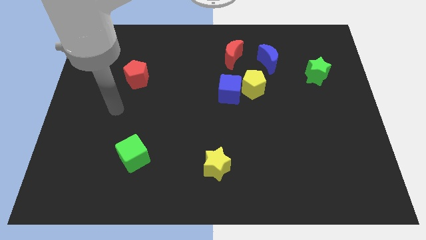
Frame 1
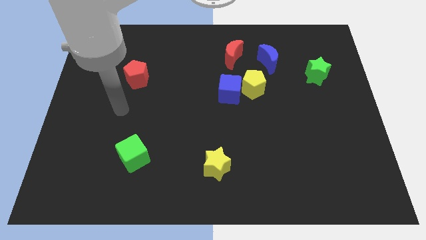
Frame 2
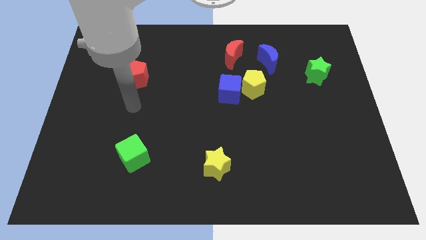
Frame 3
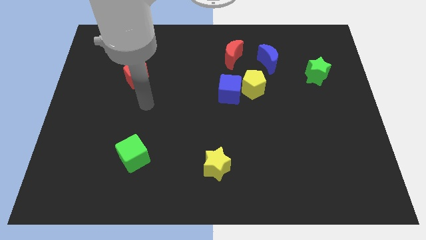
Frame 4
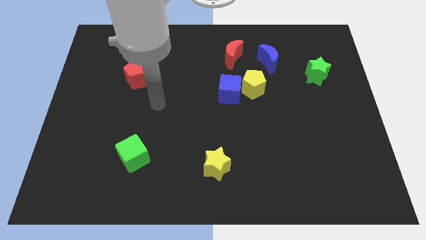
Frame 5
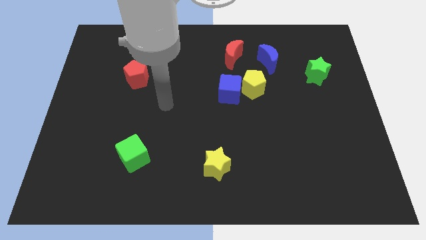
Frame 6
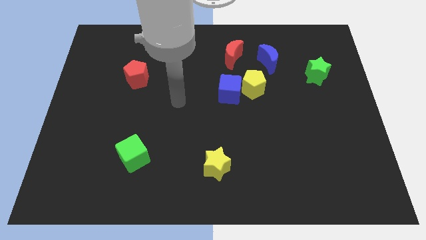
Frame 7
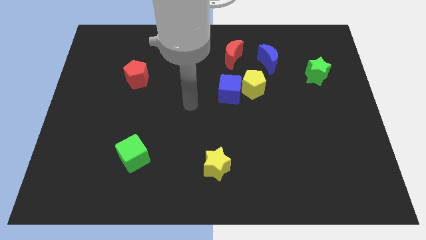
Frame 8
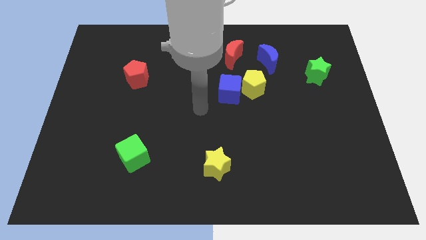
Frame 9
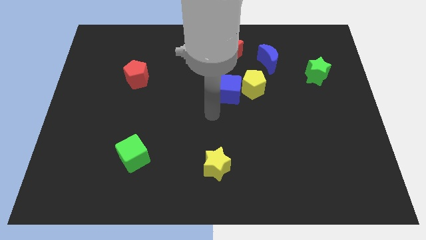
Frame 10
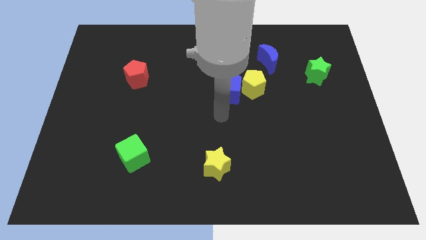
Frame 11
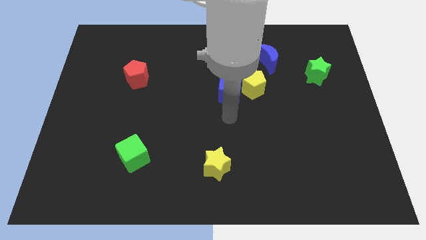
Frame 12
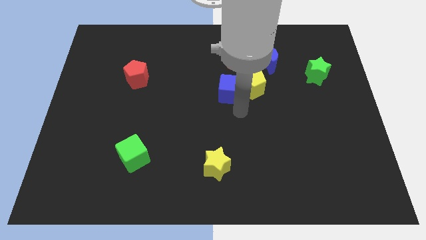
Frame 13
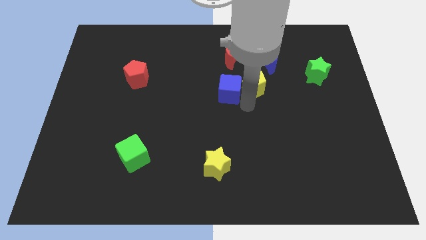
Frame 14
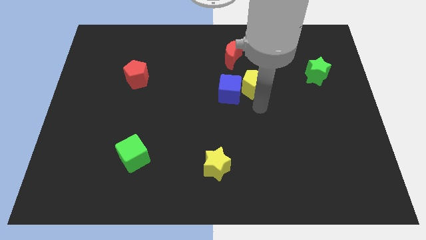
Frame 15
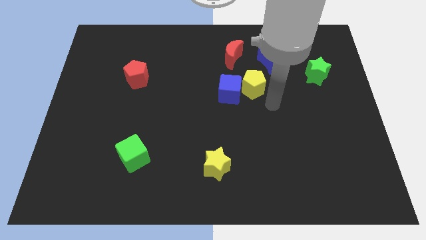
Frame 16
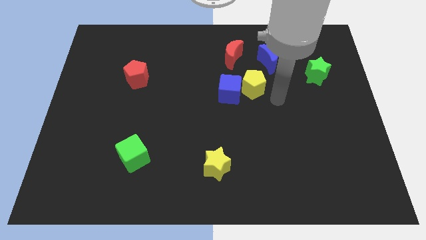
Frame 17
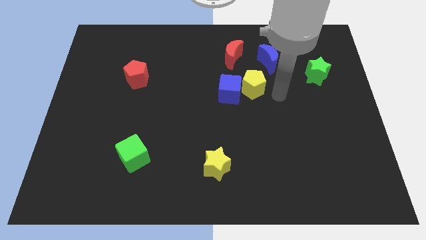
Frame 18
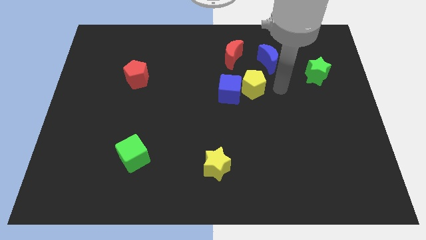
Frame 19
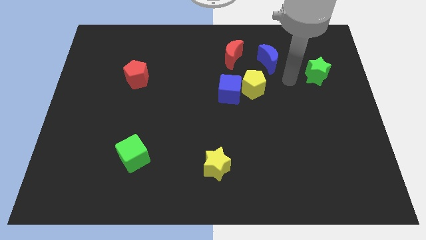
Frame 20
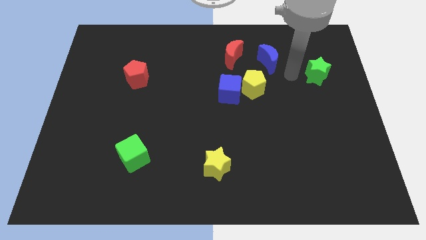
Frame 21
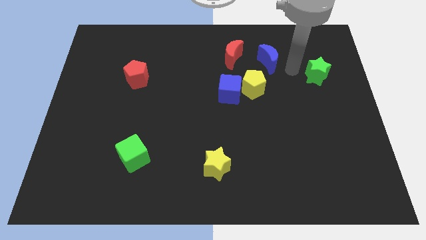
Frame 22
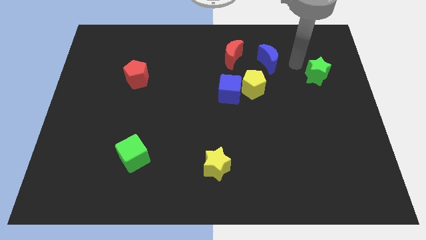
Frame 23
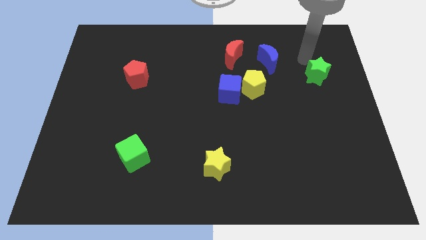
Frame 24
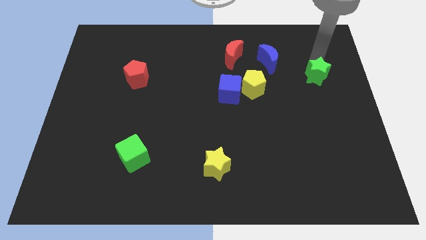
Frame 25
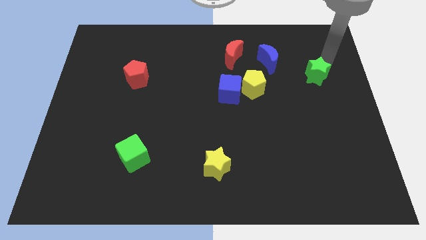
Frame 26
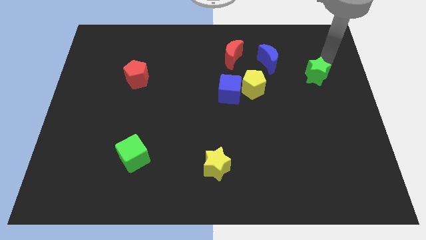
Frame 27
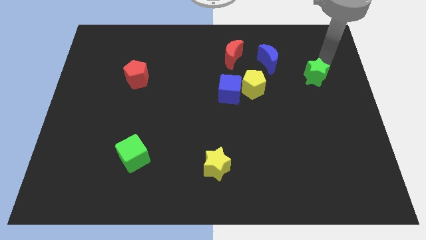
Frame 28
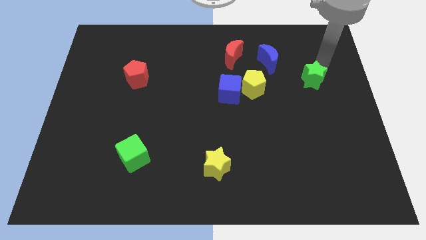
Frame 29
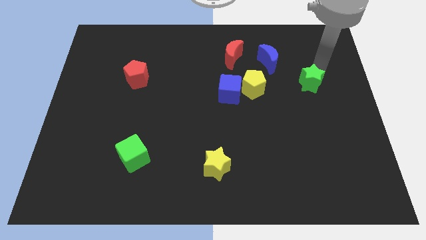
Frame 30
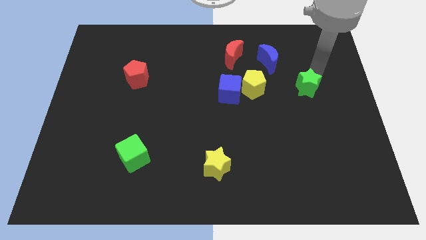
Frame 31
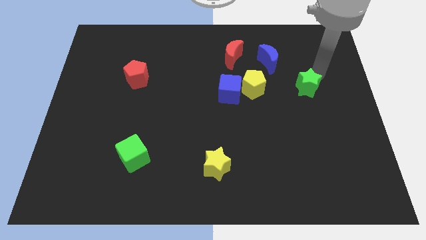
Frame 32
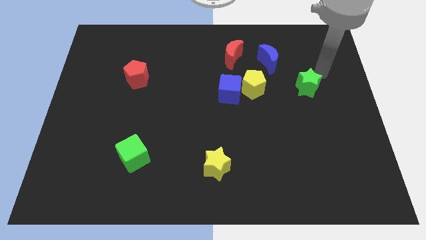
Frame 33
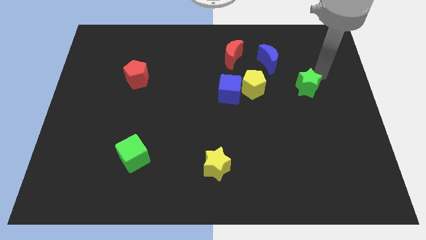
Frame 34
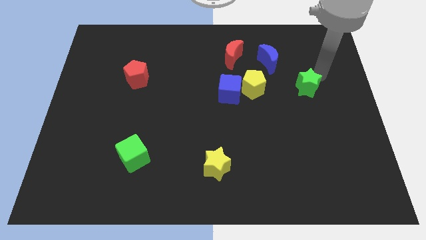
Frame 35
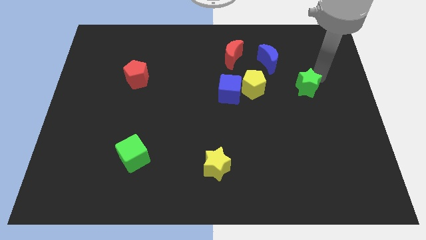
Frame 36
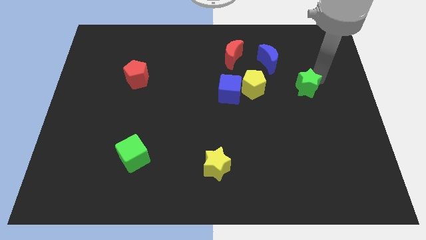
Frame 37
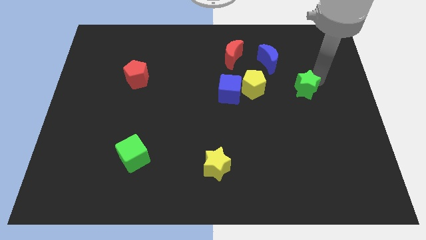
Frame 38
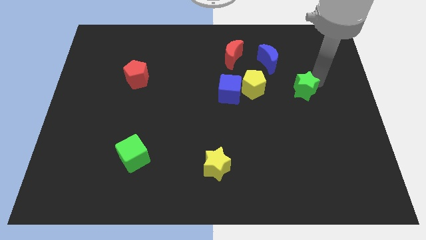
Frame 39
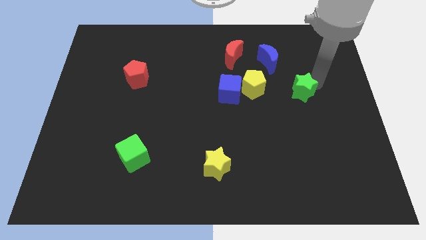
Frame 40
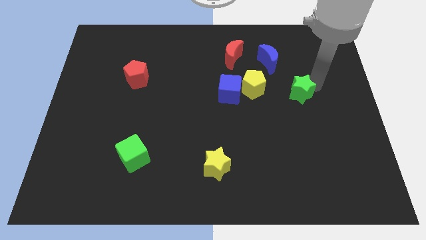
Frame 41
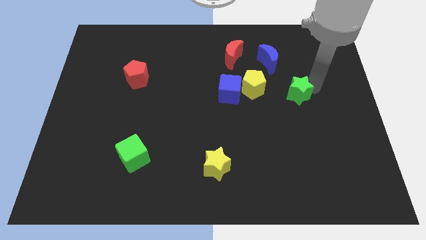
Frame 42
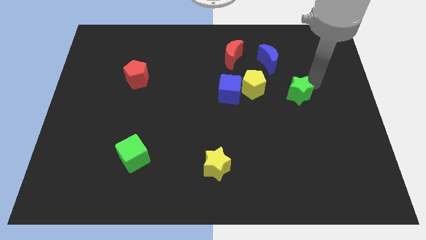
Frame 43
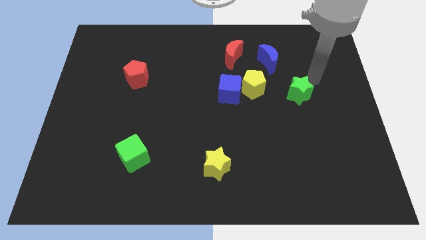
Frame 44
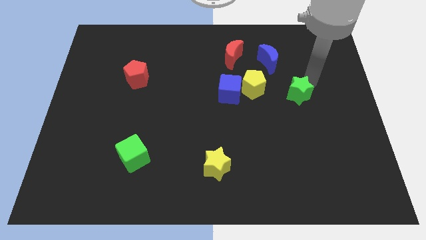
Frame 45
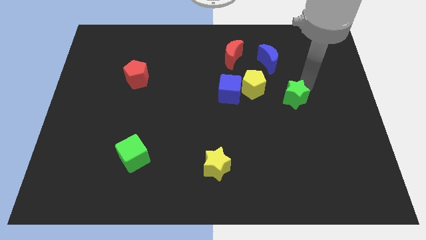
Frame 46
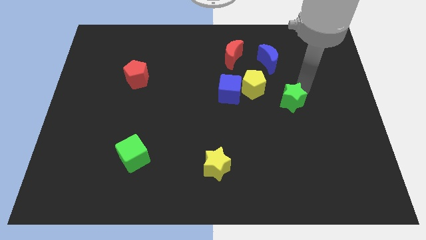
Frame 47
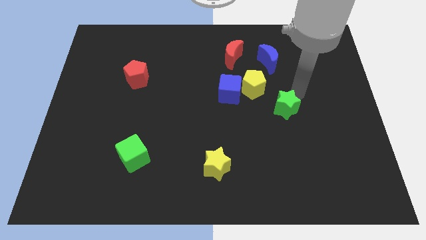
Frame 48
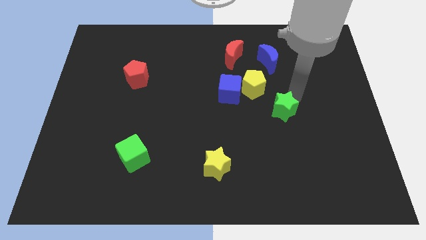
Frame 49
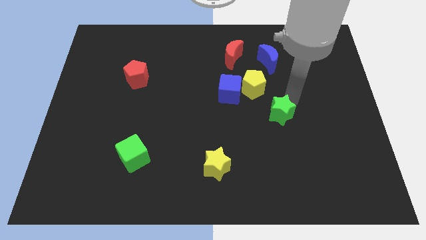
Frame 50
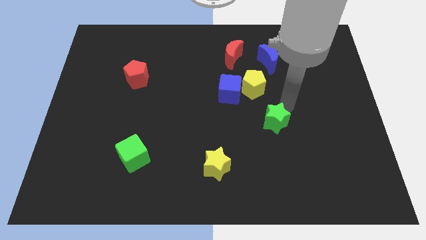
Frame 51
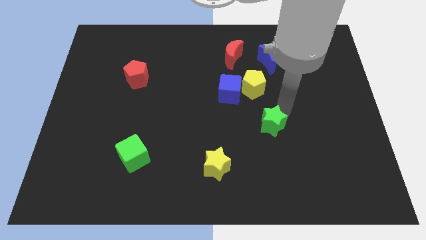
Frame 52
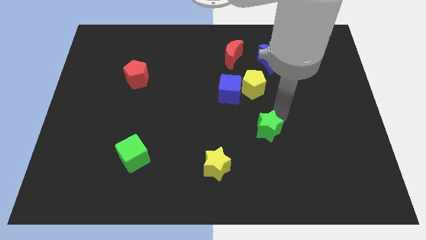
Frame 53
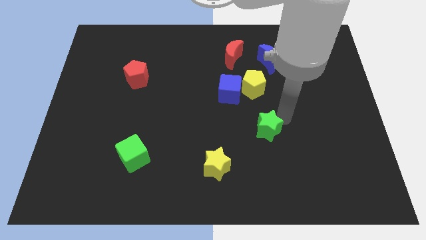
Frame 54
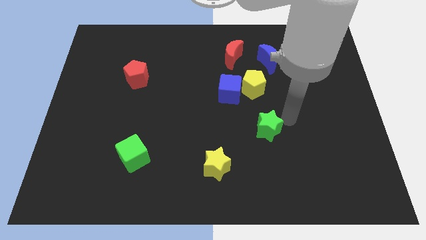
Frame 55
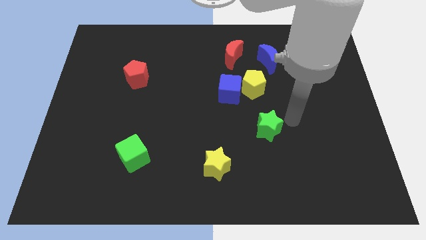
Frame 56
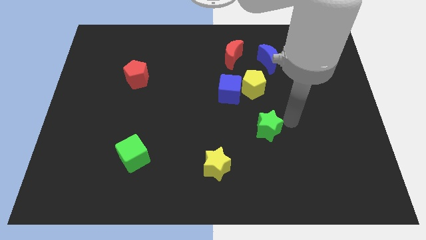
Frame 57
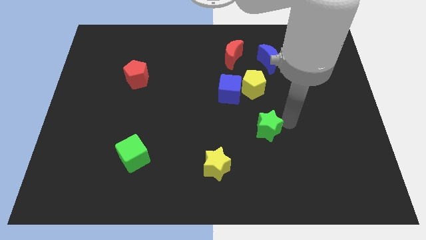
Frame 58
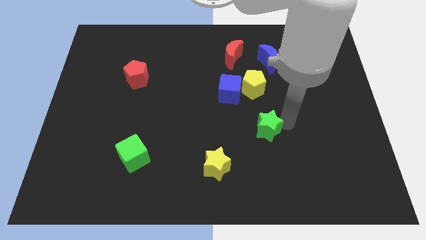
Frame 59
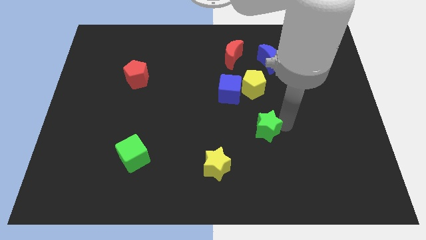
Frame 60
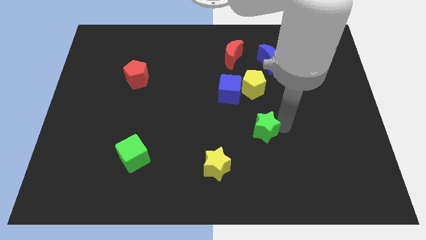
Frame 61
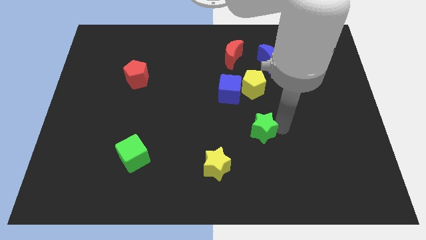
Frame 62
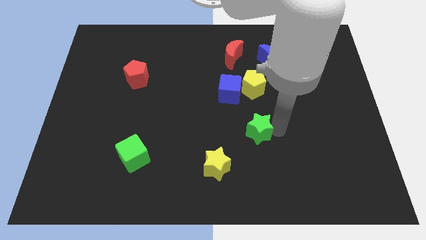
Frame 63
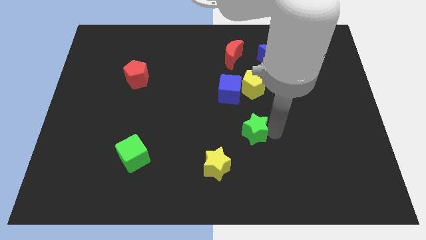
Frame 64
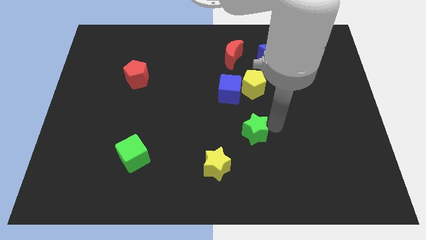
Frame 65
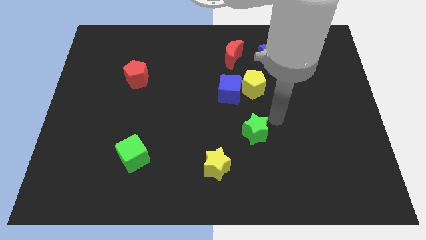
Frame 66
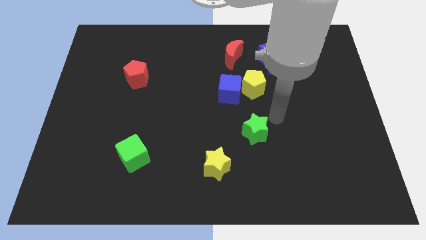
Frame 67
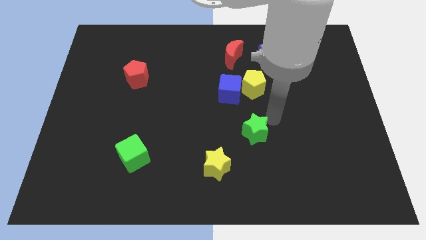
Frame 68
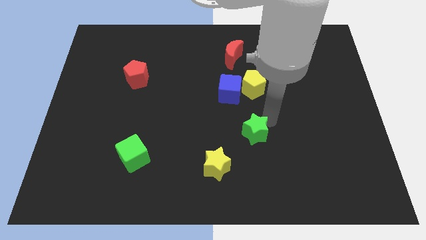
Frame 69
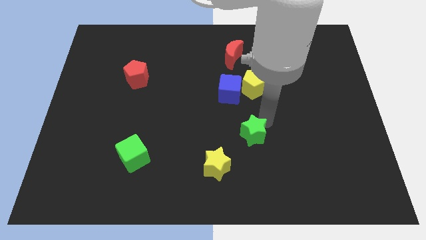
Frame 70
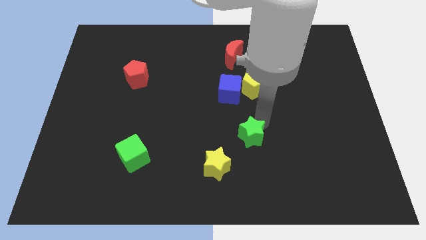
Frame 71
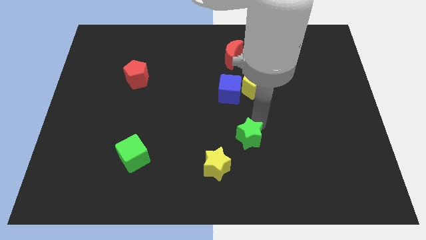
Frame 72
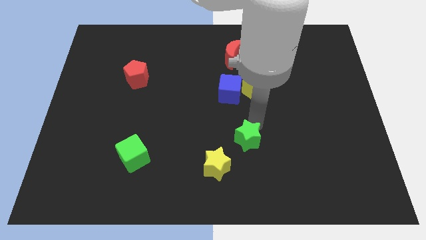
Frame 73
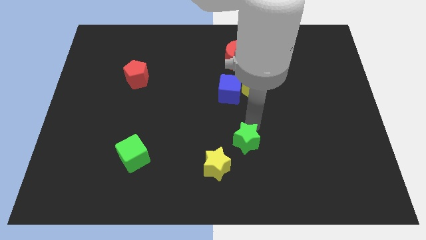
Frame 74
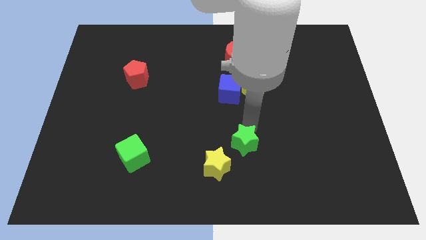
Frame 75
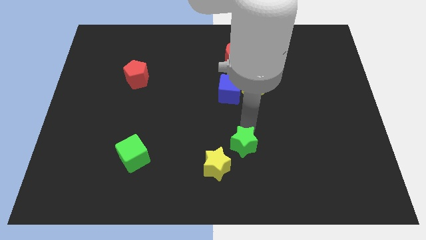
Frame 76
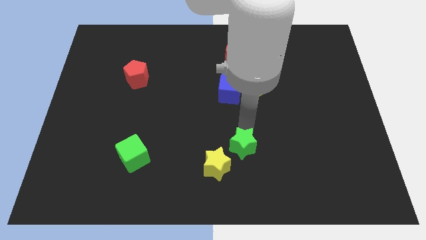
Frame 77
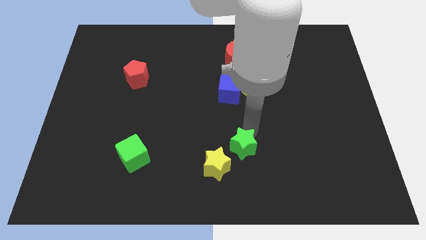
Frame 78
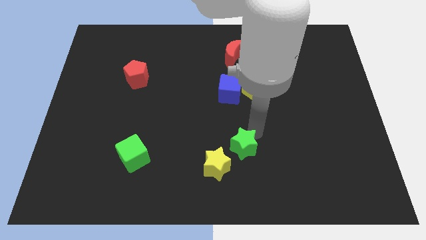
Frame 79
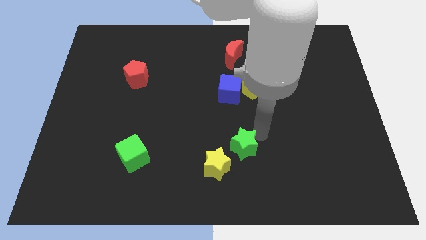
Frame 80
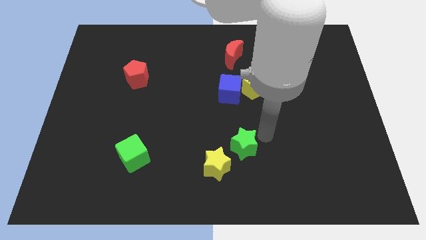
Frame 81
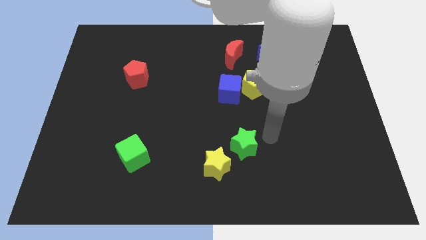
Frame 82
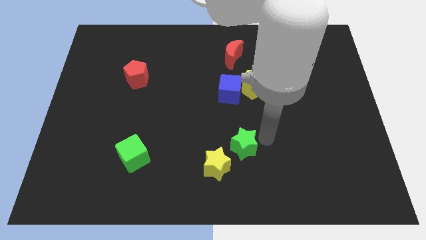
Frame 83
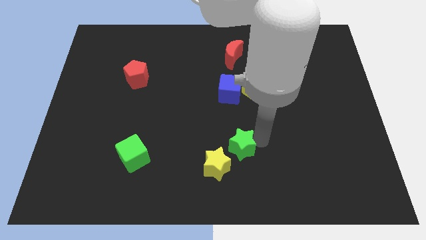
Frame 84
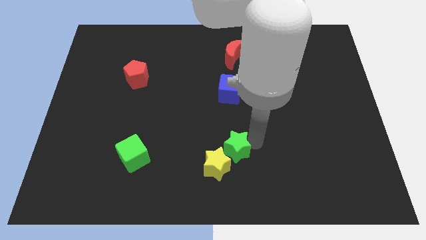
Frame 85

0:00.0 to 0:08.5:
move the green star to the yellow star
